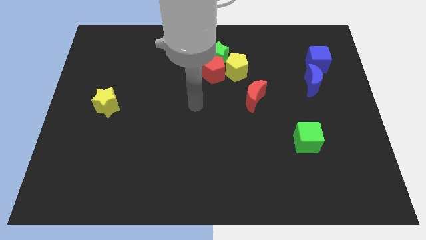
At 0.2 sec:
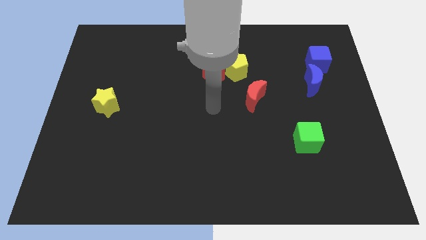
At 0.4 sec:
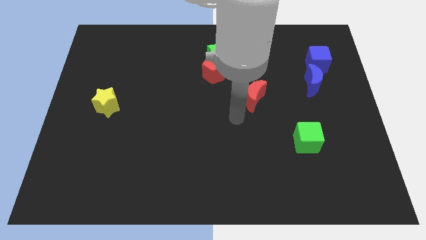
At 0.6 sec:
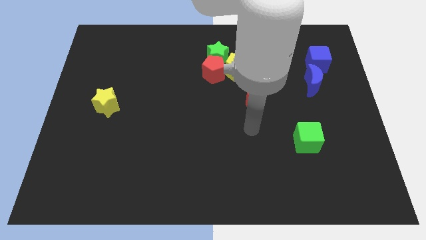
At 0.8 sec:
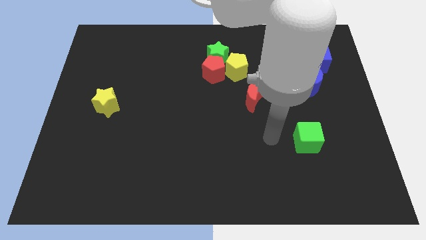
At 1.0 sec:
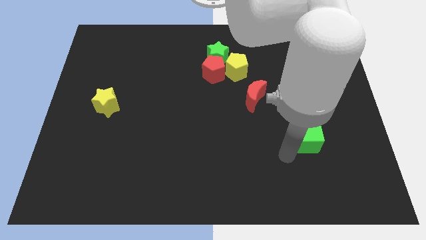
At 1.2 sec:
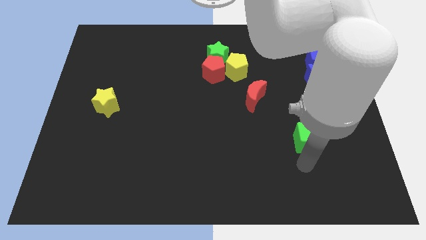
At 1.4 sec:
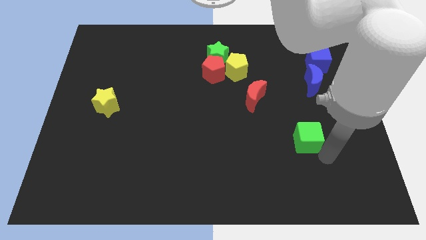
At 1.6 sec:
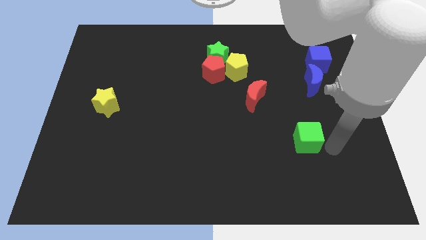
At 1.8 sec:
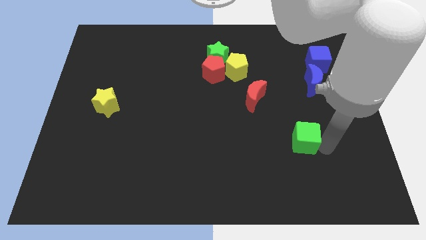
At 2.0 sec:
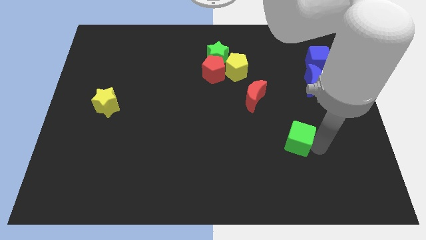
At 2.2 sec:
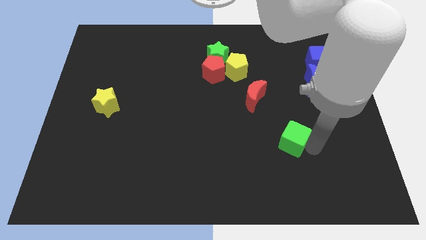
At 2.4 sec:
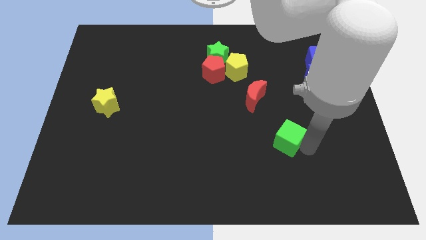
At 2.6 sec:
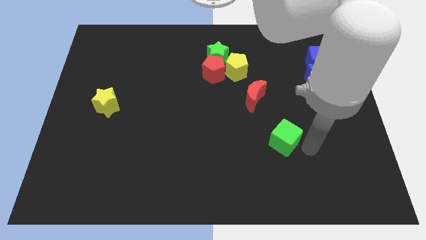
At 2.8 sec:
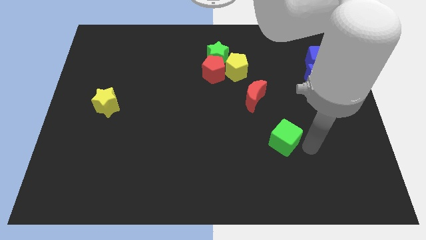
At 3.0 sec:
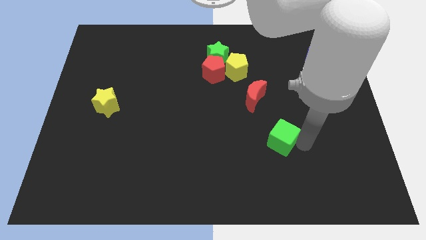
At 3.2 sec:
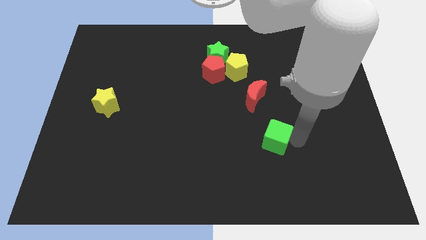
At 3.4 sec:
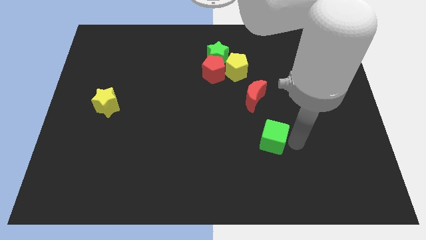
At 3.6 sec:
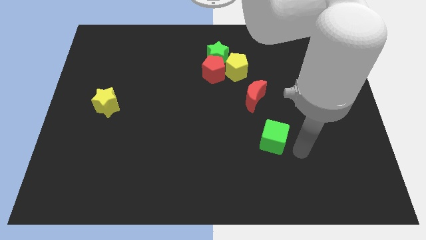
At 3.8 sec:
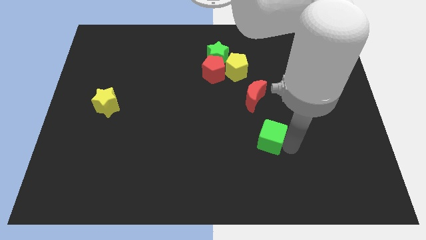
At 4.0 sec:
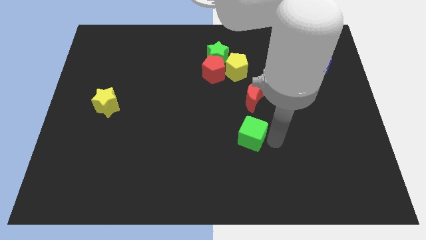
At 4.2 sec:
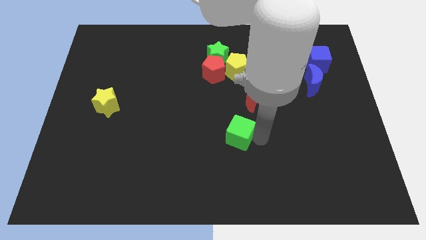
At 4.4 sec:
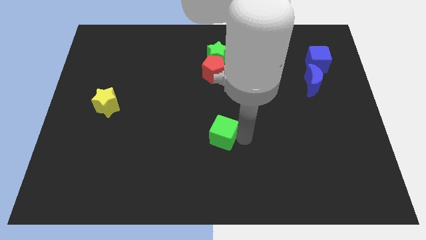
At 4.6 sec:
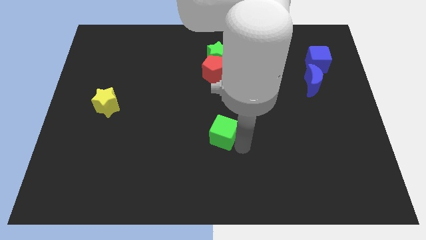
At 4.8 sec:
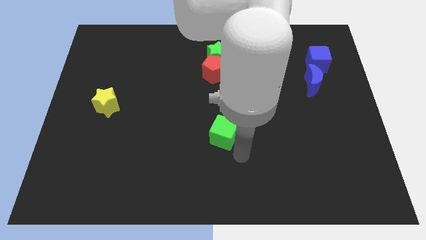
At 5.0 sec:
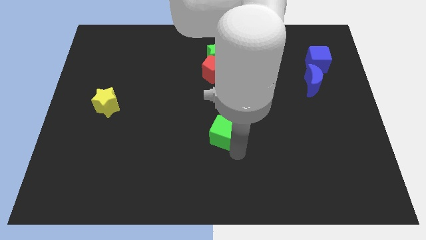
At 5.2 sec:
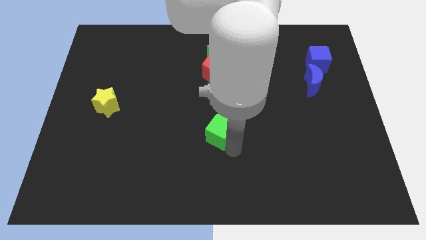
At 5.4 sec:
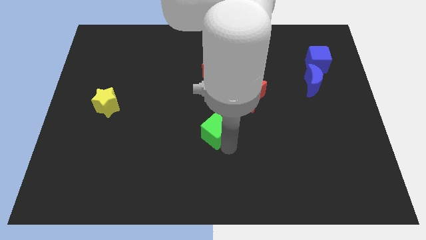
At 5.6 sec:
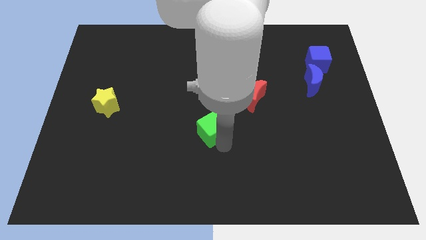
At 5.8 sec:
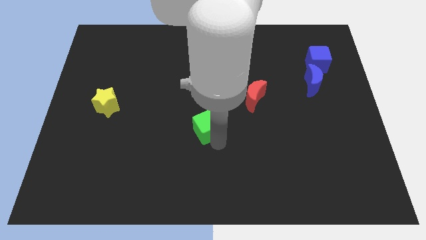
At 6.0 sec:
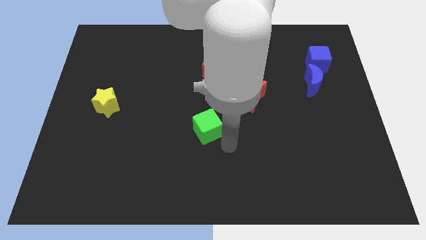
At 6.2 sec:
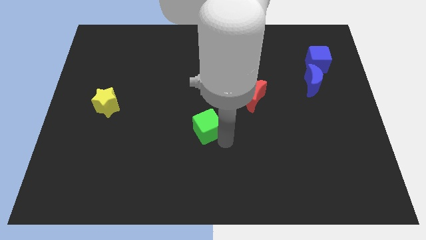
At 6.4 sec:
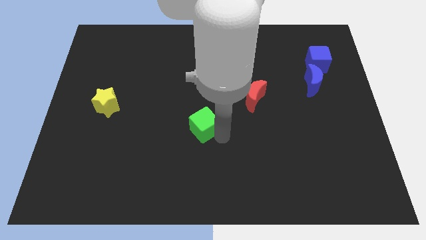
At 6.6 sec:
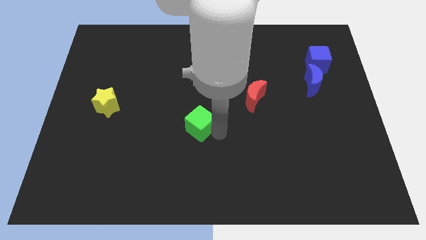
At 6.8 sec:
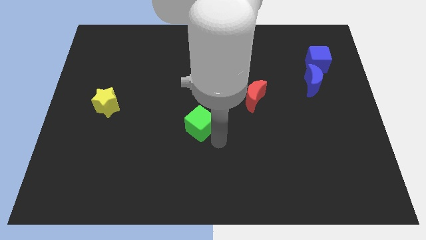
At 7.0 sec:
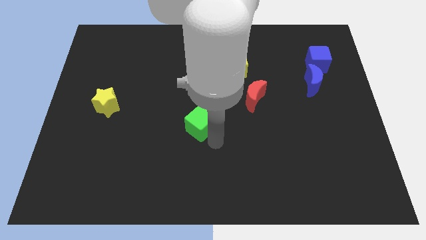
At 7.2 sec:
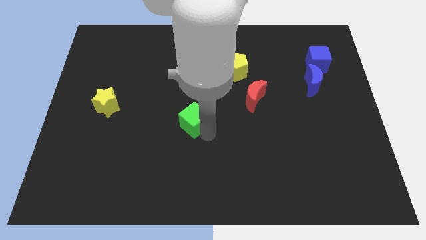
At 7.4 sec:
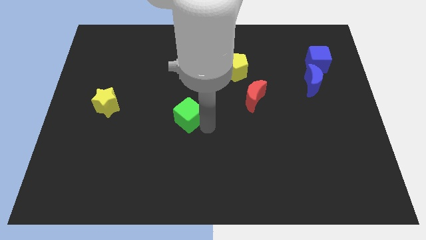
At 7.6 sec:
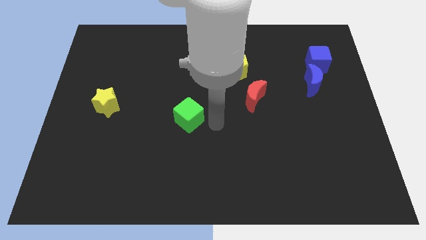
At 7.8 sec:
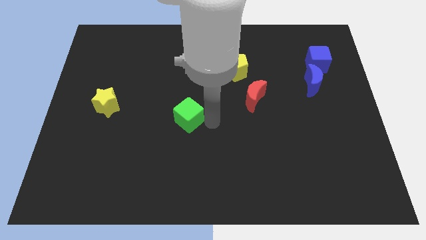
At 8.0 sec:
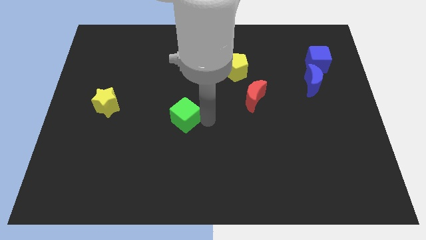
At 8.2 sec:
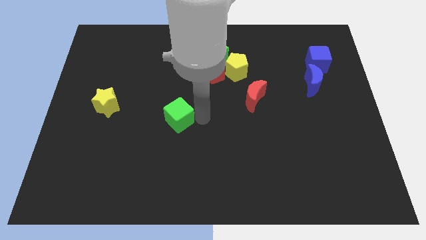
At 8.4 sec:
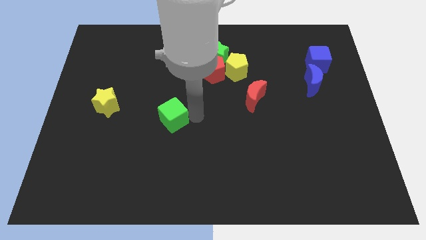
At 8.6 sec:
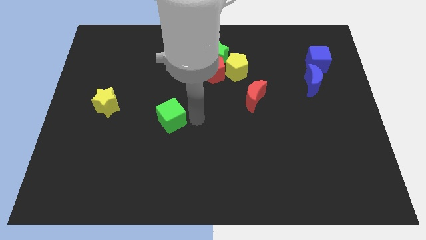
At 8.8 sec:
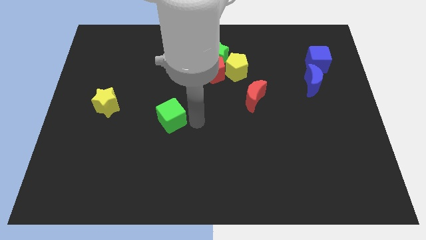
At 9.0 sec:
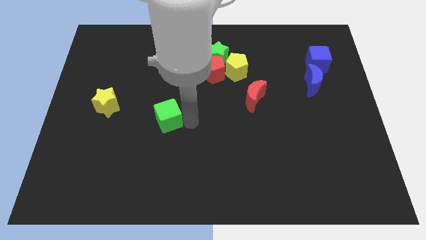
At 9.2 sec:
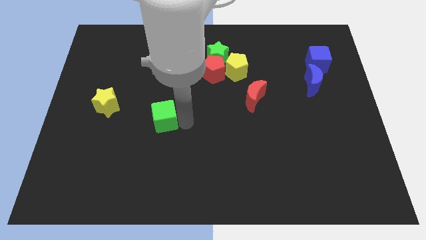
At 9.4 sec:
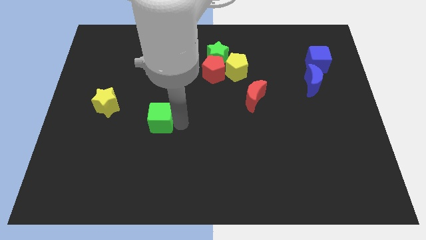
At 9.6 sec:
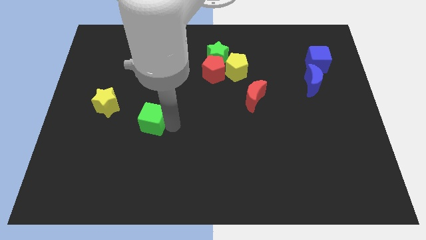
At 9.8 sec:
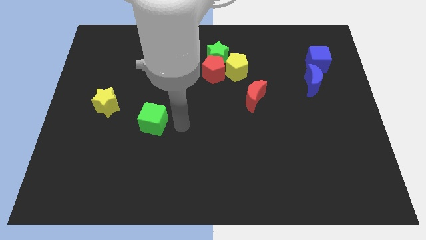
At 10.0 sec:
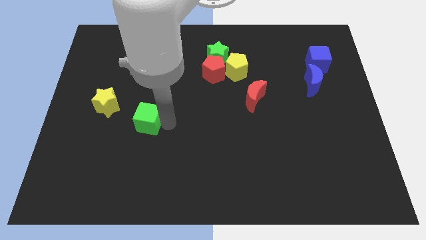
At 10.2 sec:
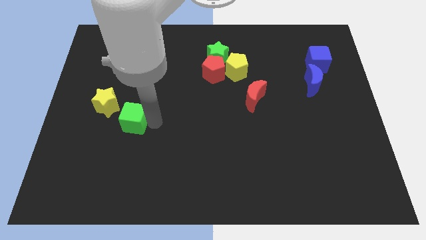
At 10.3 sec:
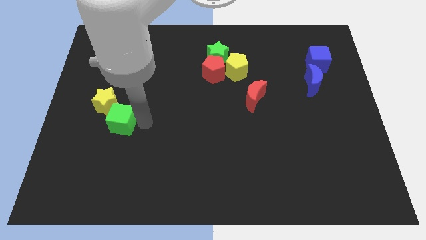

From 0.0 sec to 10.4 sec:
slide the green cube to the yellow star

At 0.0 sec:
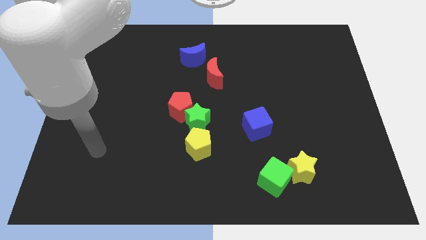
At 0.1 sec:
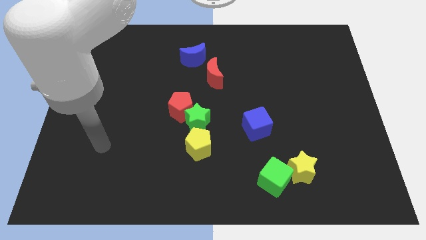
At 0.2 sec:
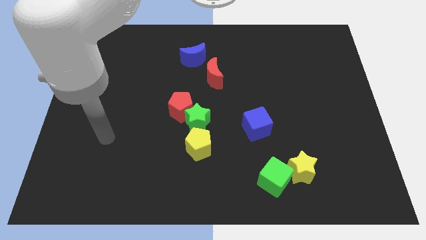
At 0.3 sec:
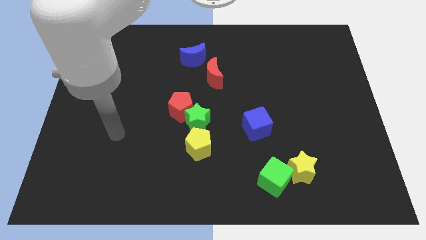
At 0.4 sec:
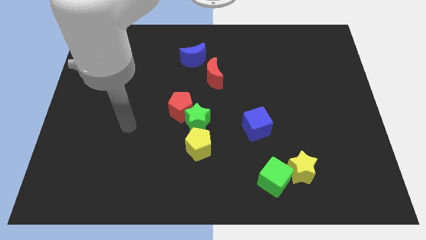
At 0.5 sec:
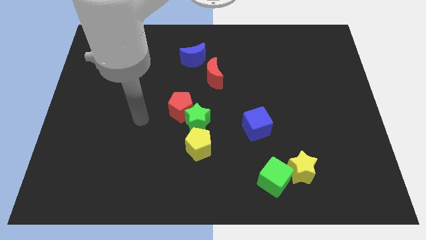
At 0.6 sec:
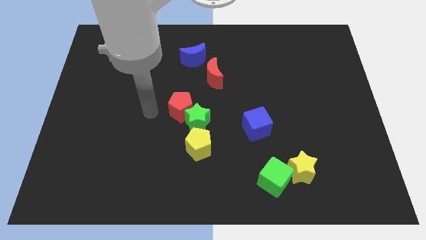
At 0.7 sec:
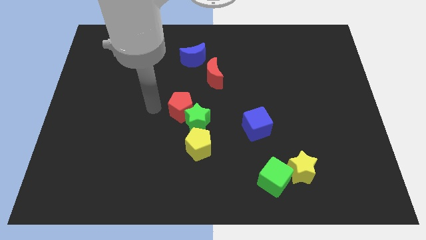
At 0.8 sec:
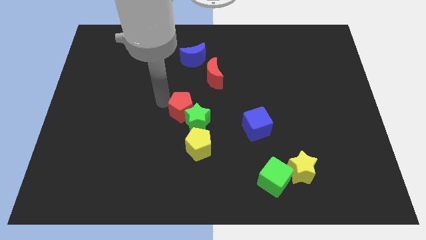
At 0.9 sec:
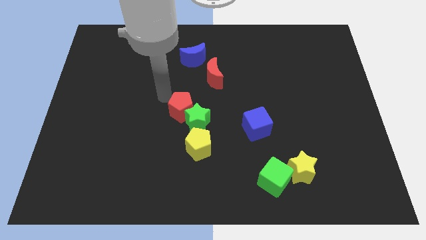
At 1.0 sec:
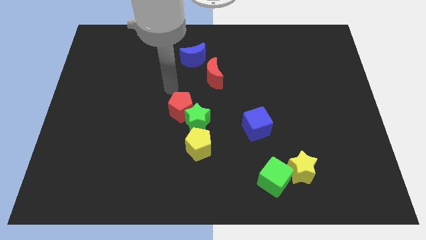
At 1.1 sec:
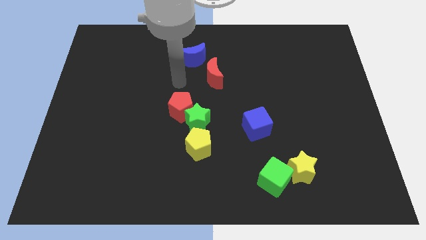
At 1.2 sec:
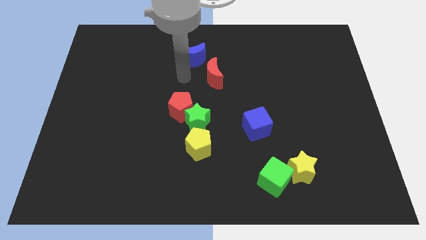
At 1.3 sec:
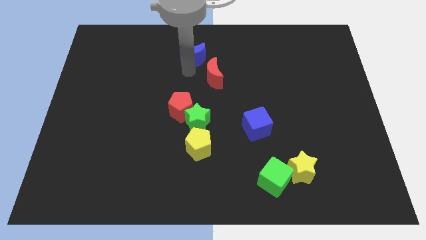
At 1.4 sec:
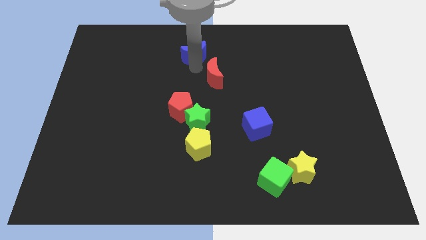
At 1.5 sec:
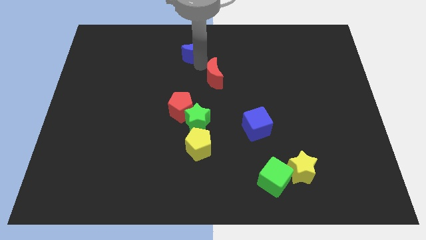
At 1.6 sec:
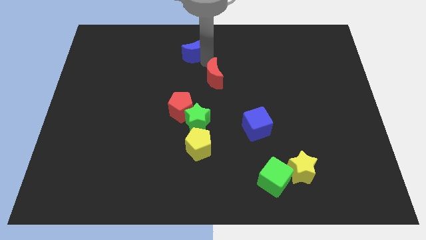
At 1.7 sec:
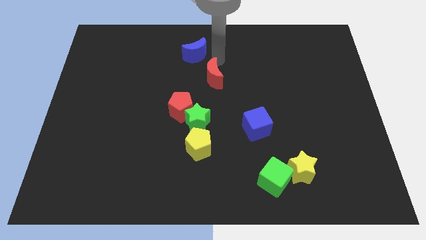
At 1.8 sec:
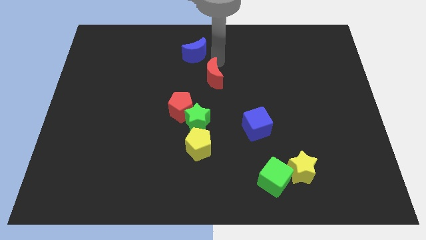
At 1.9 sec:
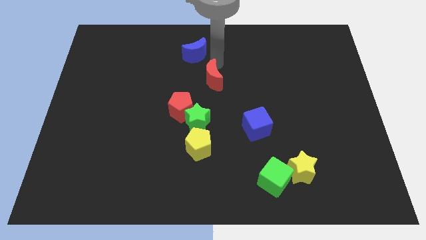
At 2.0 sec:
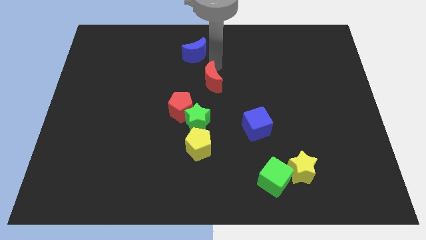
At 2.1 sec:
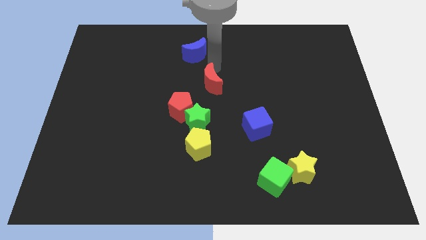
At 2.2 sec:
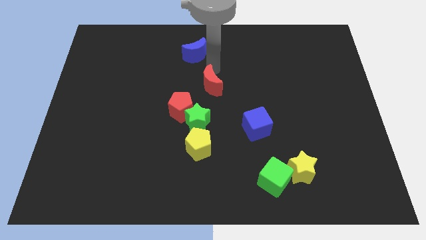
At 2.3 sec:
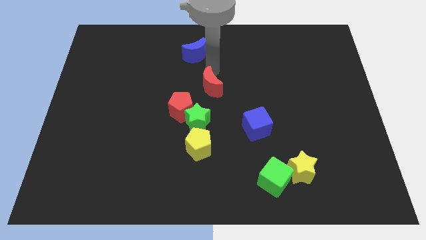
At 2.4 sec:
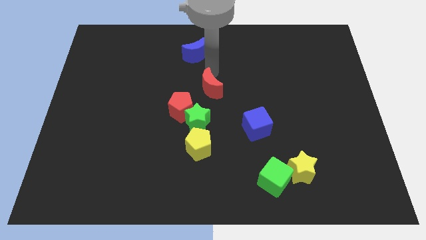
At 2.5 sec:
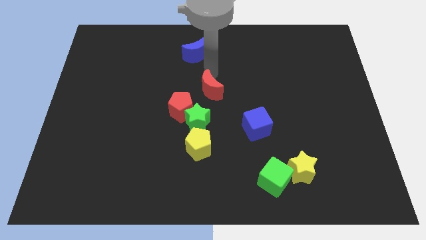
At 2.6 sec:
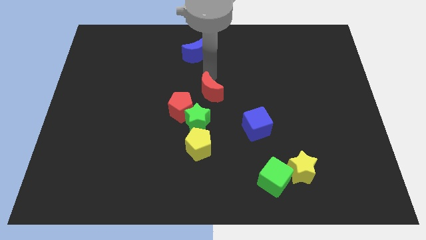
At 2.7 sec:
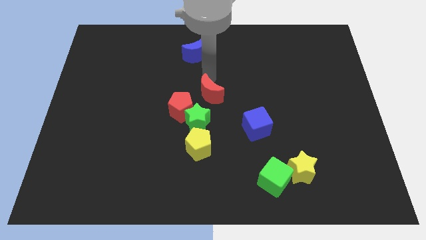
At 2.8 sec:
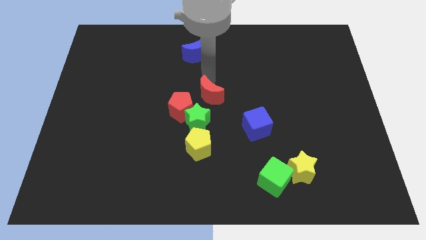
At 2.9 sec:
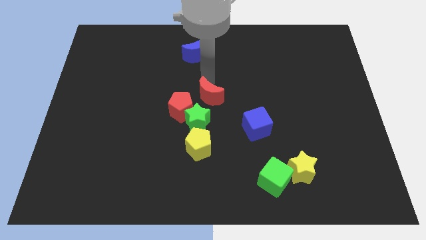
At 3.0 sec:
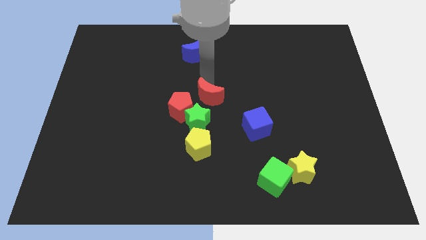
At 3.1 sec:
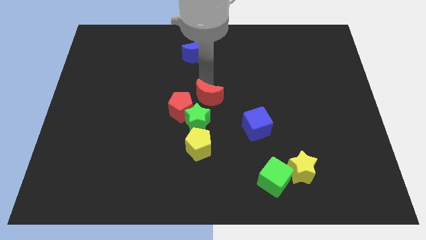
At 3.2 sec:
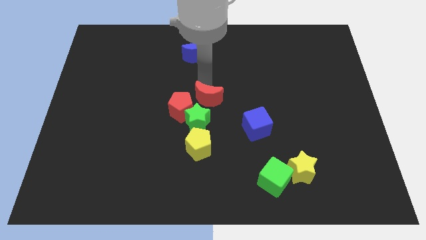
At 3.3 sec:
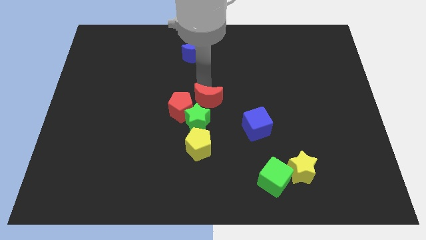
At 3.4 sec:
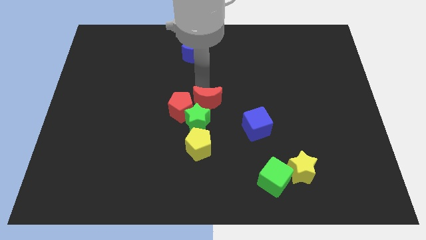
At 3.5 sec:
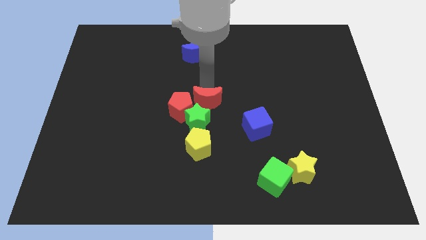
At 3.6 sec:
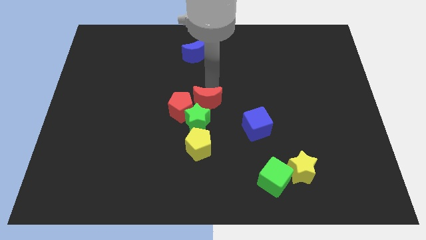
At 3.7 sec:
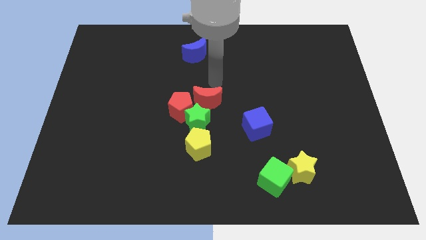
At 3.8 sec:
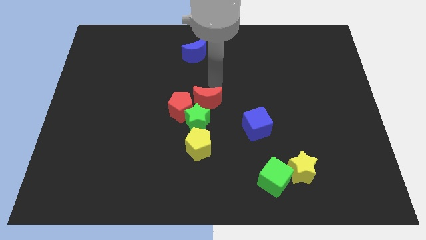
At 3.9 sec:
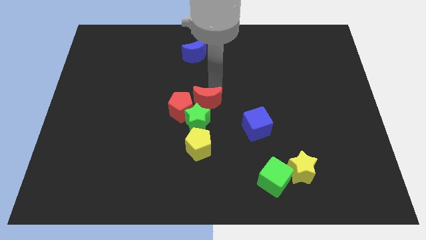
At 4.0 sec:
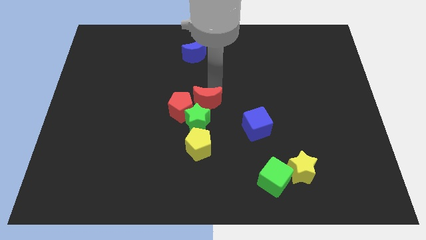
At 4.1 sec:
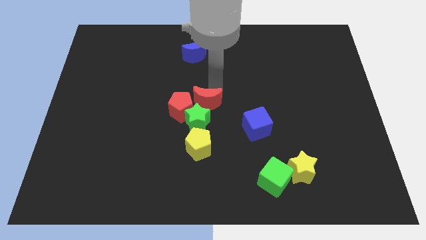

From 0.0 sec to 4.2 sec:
slide the red moon to the green star
